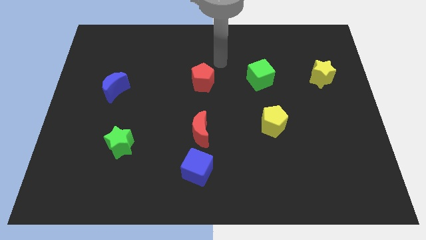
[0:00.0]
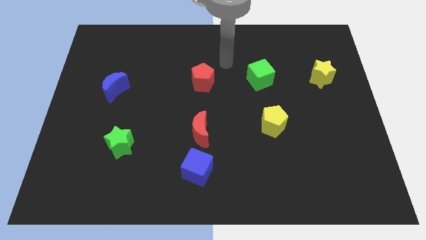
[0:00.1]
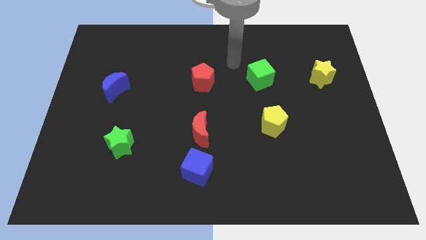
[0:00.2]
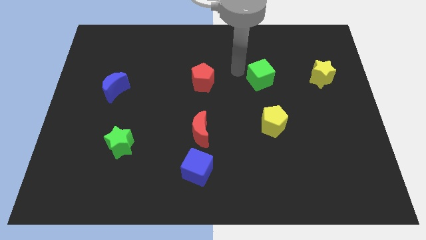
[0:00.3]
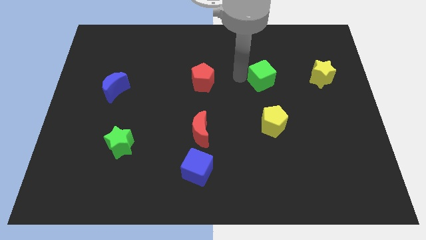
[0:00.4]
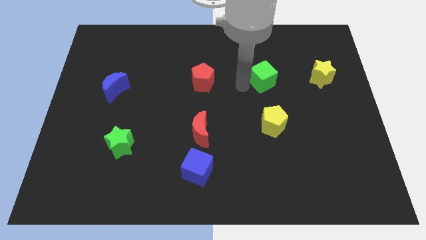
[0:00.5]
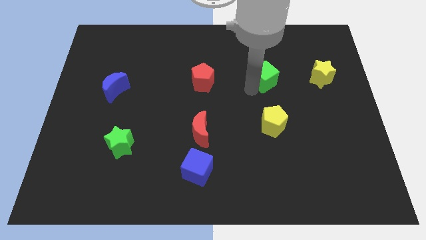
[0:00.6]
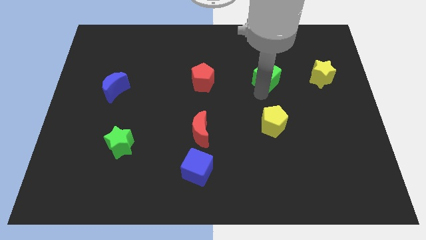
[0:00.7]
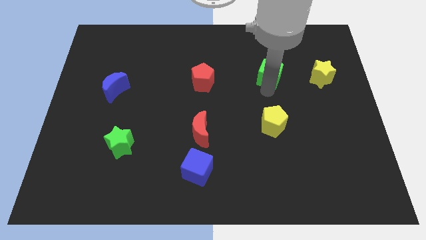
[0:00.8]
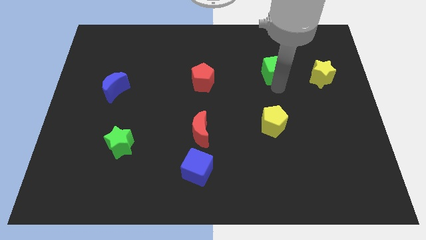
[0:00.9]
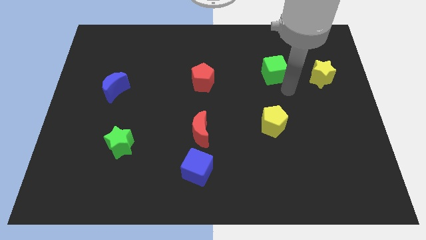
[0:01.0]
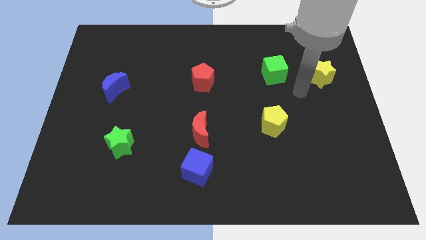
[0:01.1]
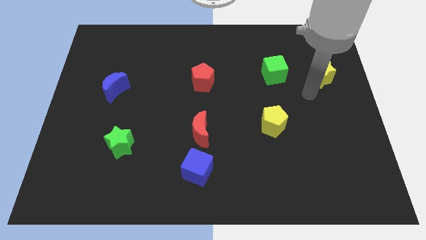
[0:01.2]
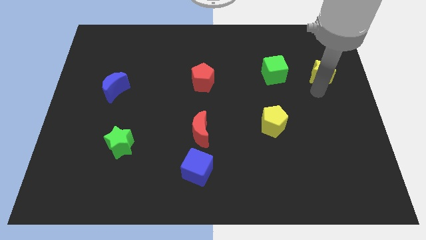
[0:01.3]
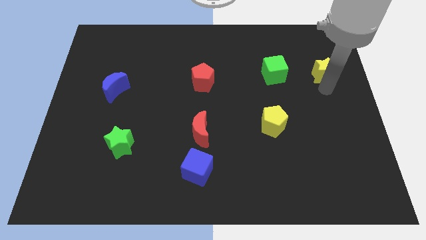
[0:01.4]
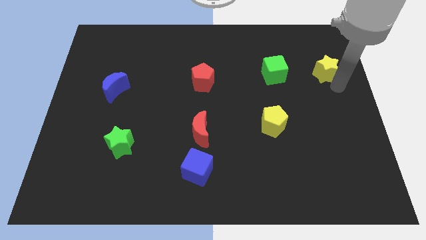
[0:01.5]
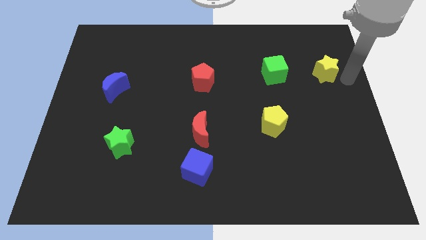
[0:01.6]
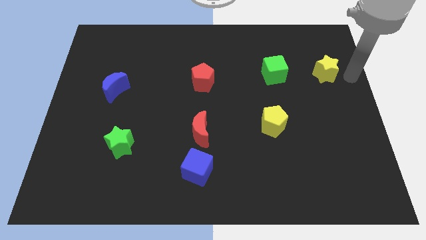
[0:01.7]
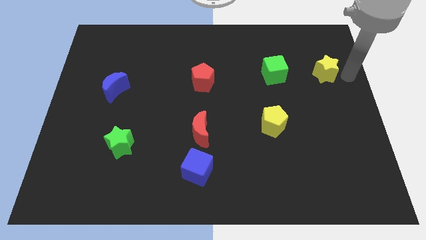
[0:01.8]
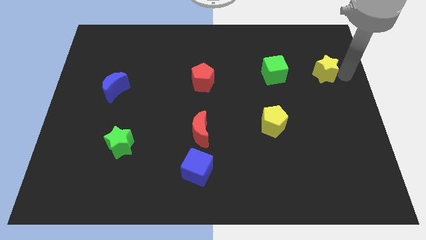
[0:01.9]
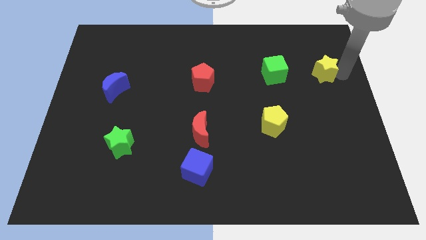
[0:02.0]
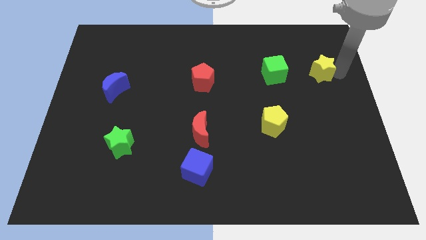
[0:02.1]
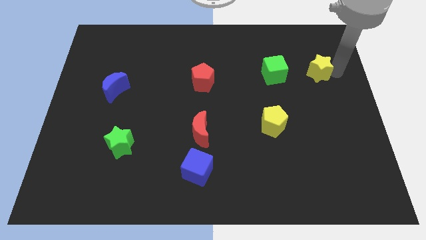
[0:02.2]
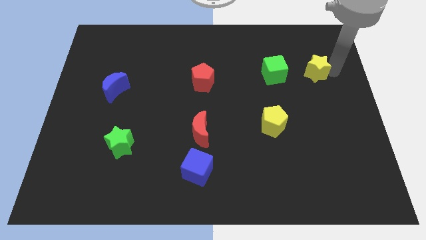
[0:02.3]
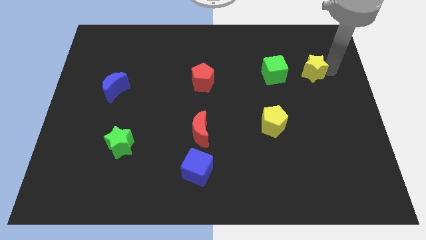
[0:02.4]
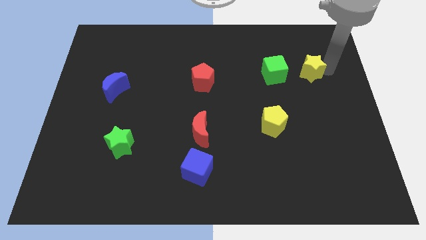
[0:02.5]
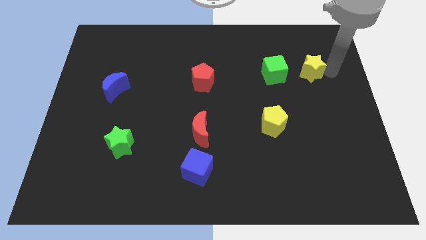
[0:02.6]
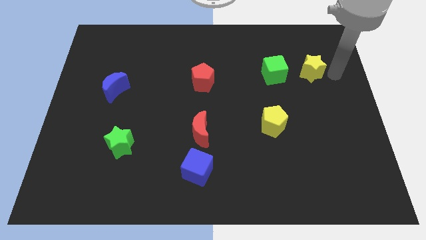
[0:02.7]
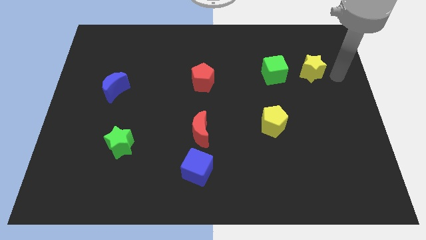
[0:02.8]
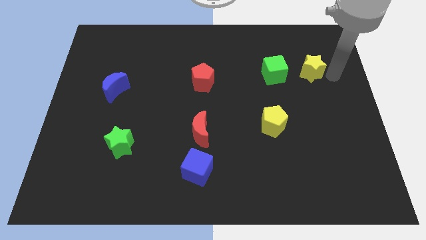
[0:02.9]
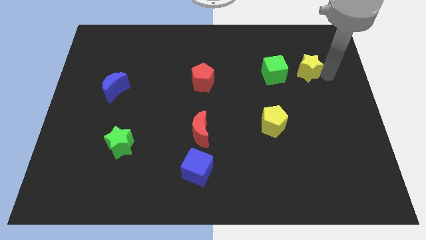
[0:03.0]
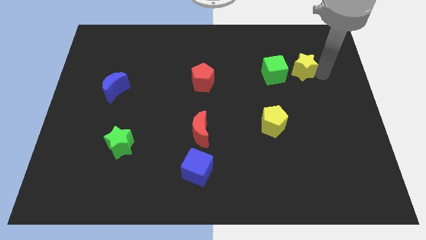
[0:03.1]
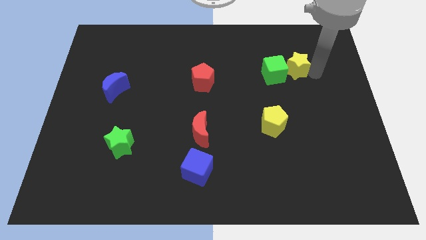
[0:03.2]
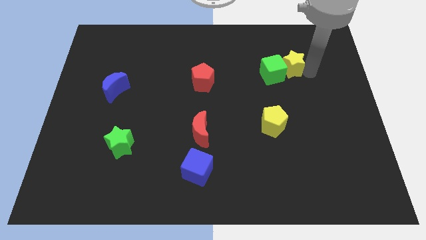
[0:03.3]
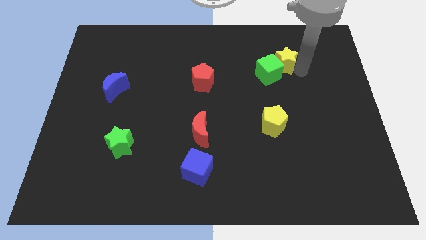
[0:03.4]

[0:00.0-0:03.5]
move the yellow star slightly left

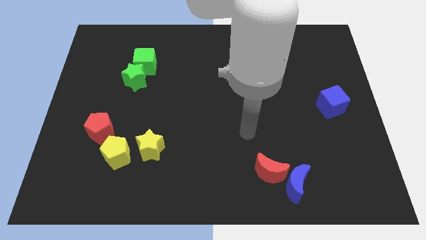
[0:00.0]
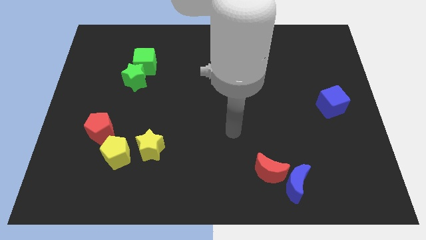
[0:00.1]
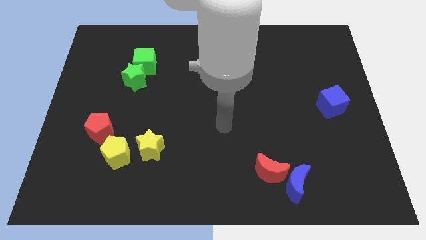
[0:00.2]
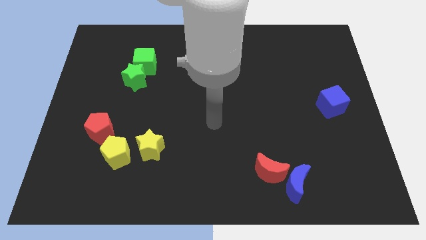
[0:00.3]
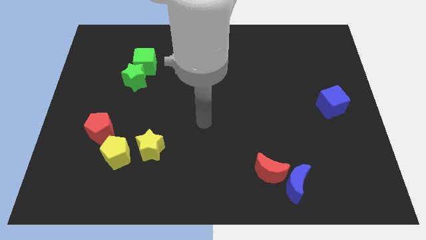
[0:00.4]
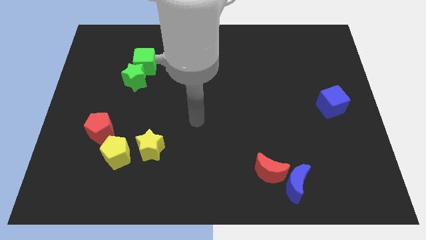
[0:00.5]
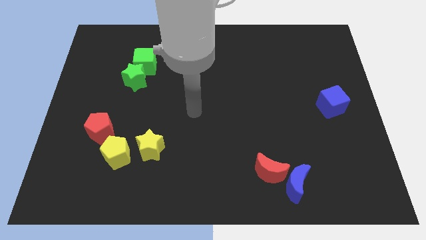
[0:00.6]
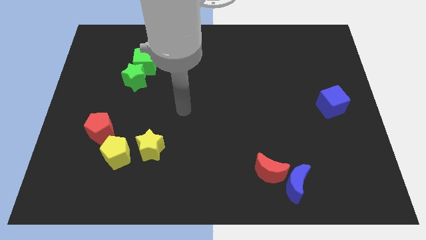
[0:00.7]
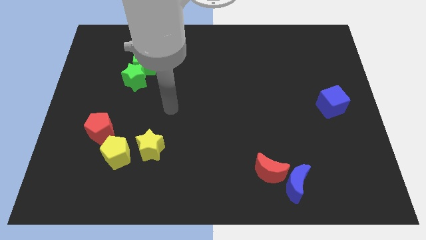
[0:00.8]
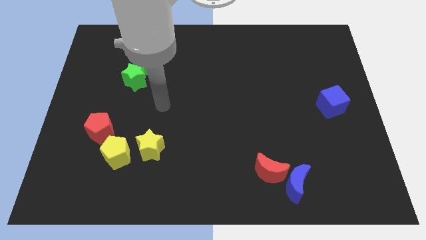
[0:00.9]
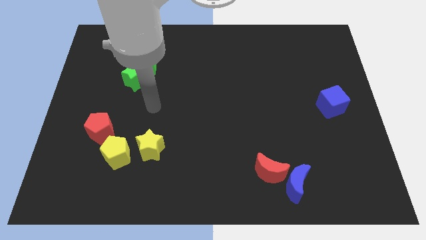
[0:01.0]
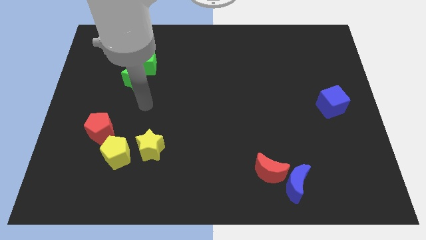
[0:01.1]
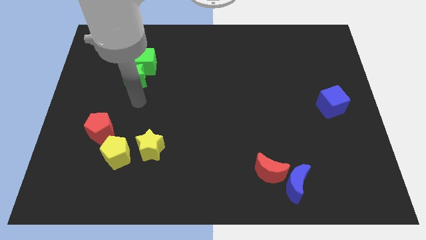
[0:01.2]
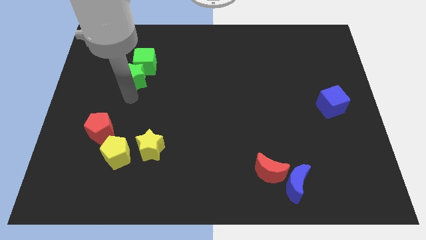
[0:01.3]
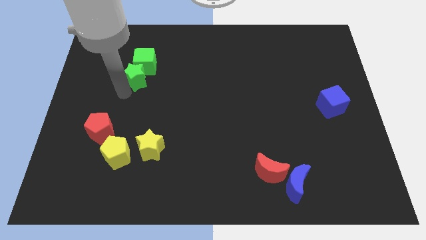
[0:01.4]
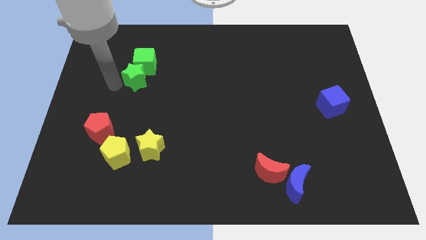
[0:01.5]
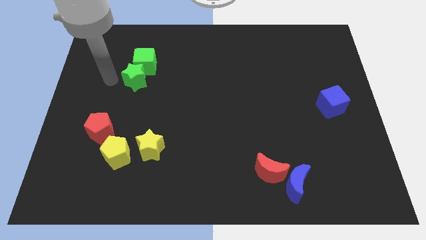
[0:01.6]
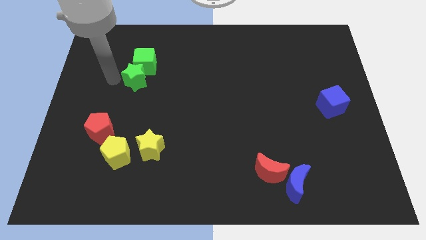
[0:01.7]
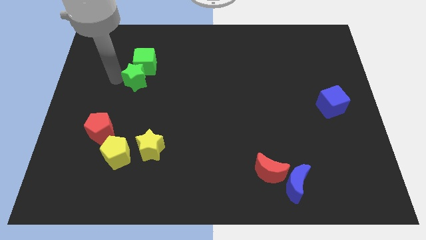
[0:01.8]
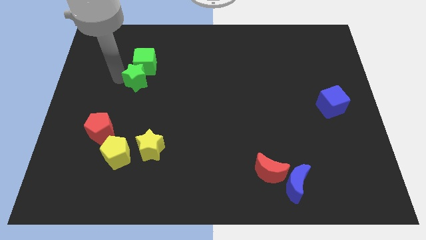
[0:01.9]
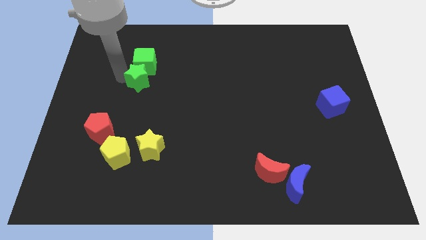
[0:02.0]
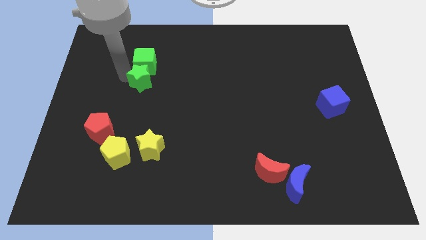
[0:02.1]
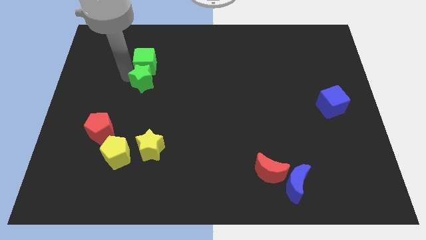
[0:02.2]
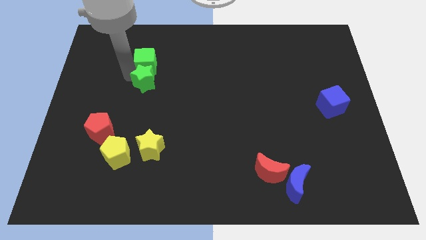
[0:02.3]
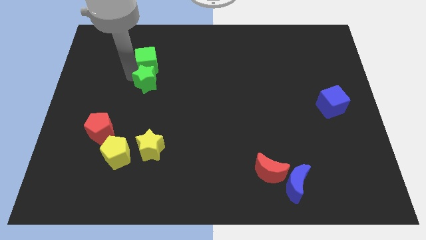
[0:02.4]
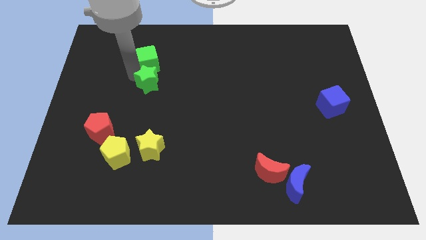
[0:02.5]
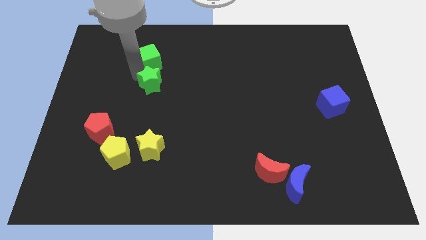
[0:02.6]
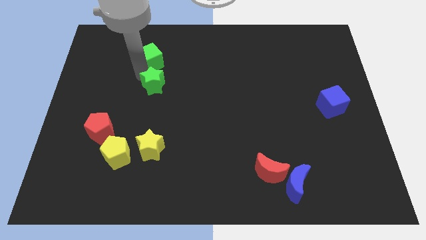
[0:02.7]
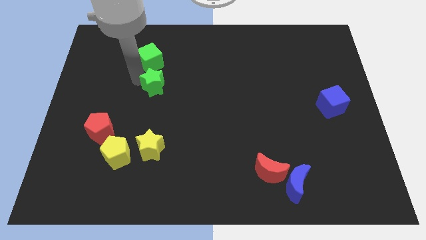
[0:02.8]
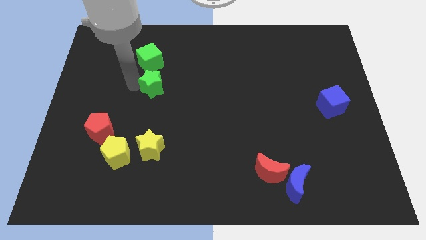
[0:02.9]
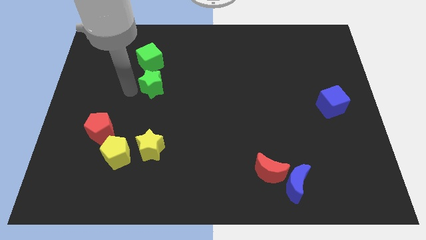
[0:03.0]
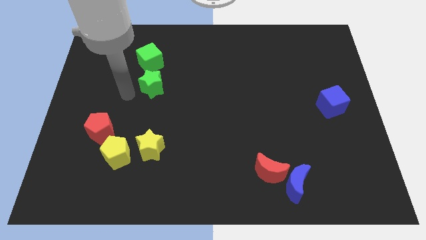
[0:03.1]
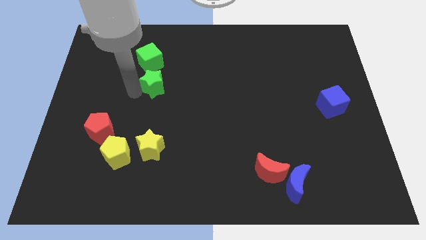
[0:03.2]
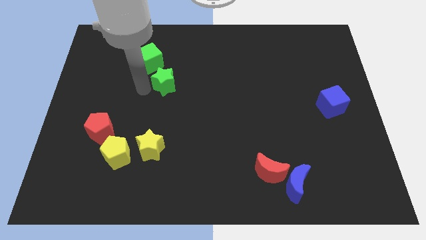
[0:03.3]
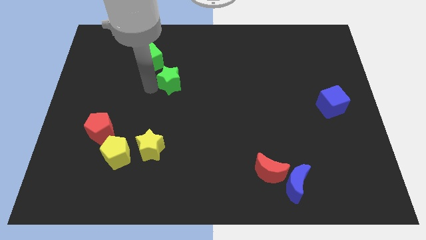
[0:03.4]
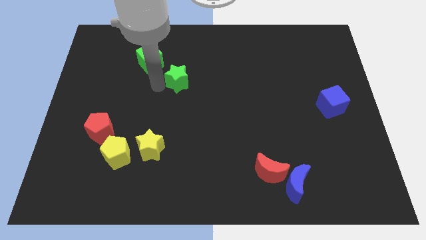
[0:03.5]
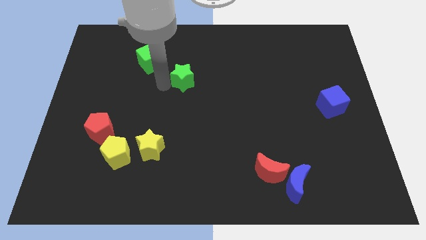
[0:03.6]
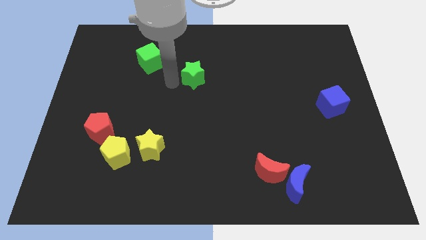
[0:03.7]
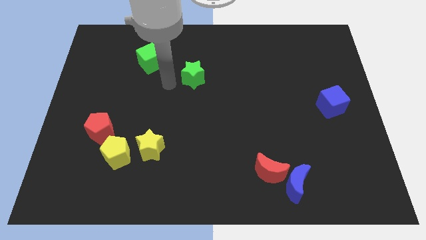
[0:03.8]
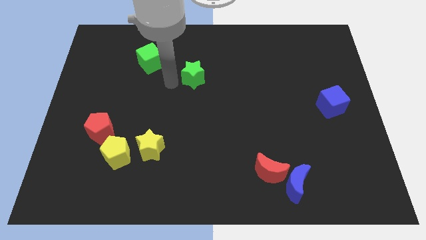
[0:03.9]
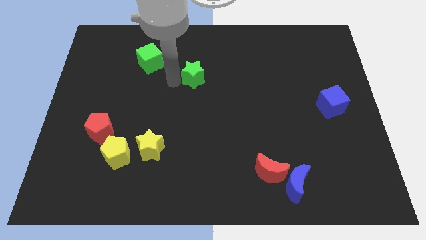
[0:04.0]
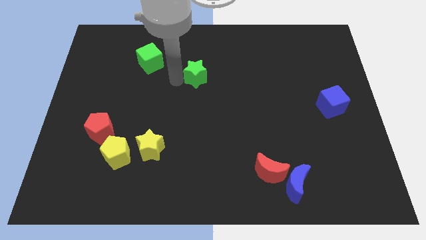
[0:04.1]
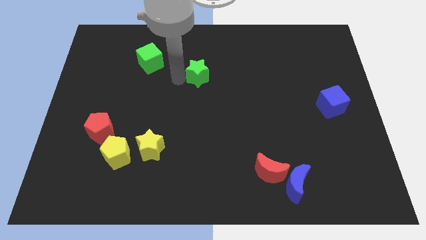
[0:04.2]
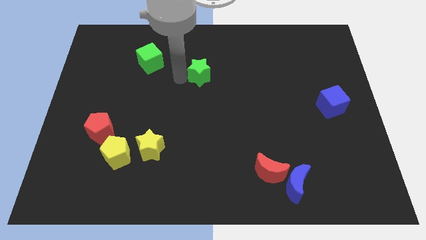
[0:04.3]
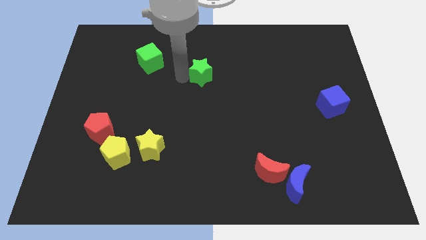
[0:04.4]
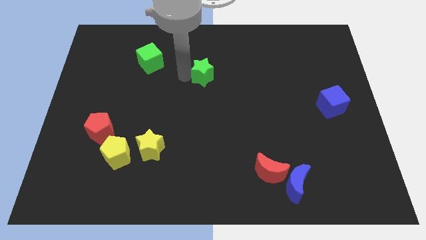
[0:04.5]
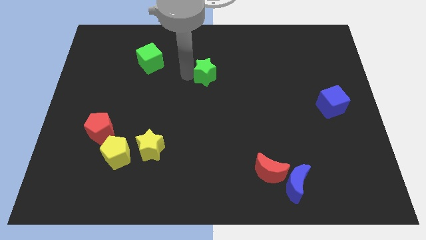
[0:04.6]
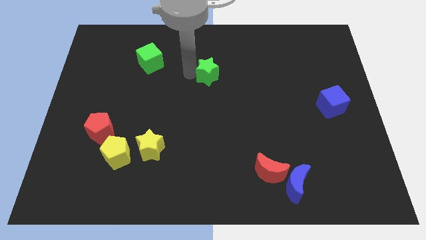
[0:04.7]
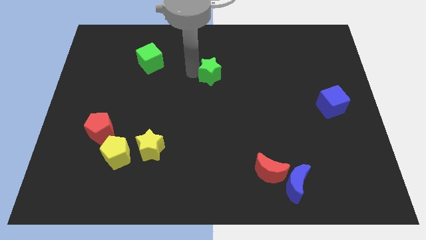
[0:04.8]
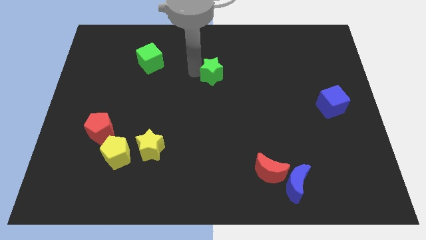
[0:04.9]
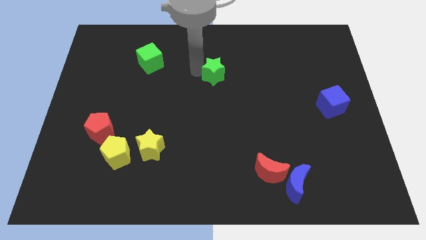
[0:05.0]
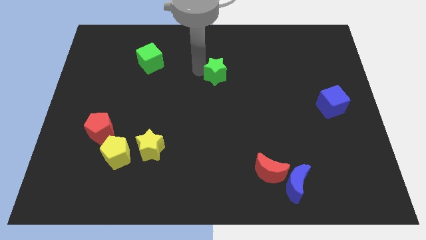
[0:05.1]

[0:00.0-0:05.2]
slide the green star right
